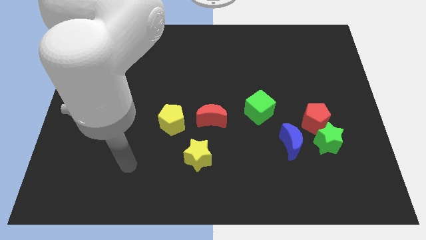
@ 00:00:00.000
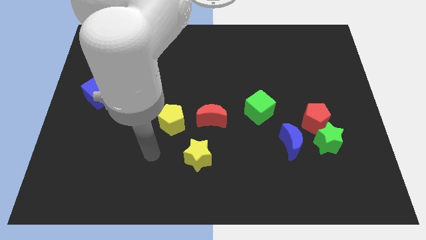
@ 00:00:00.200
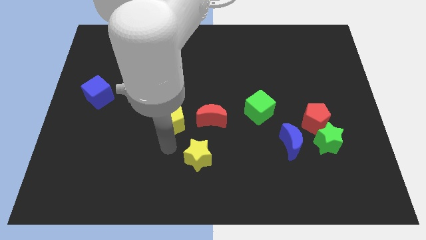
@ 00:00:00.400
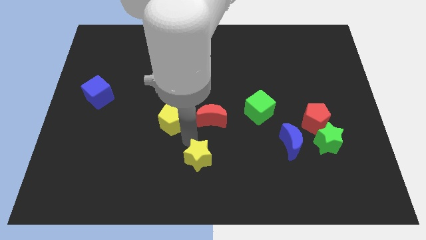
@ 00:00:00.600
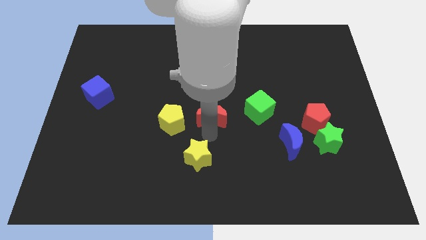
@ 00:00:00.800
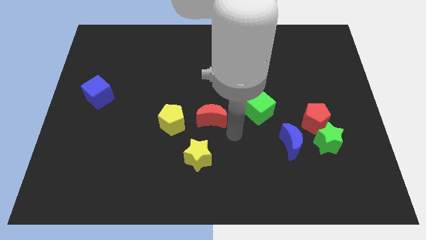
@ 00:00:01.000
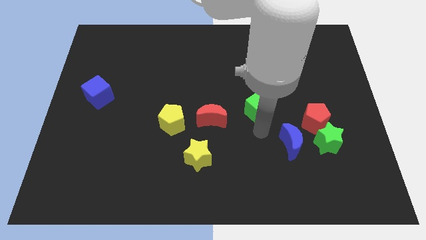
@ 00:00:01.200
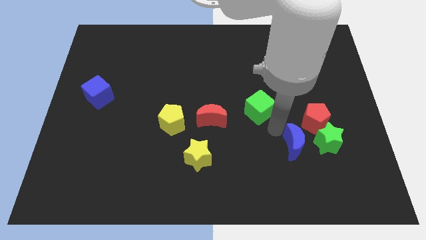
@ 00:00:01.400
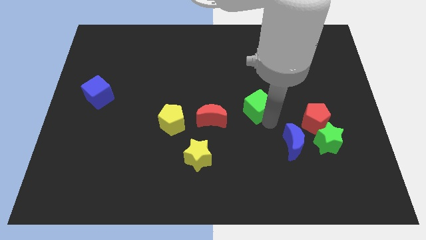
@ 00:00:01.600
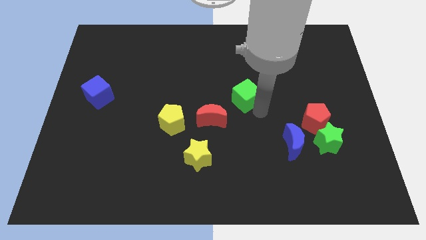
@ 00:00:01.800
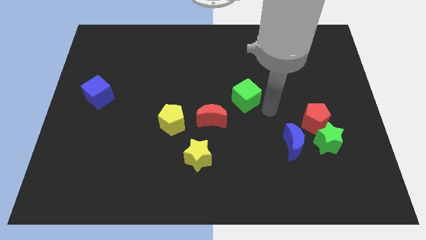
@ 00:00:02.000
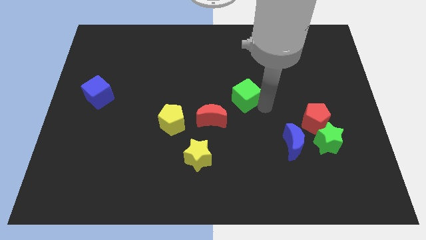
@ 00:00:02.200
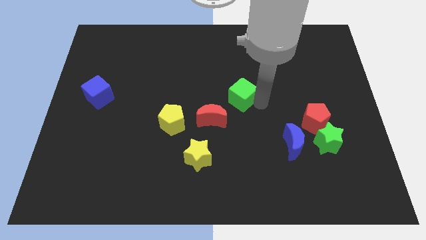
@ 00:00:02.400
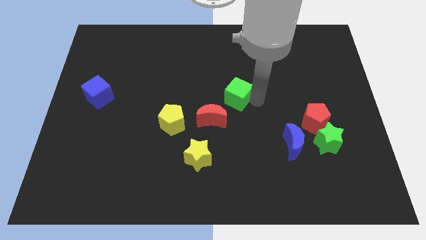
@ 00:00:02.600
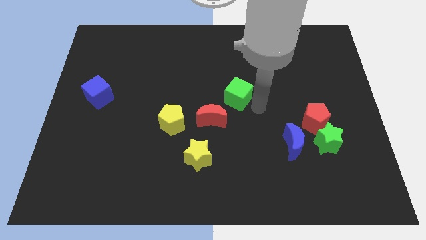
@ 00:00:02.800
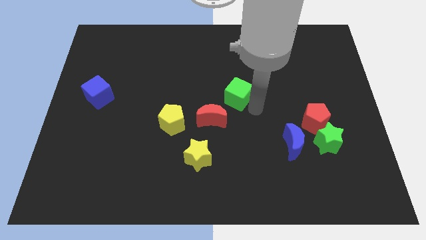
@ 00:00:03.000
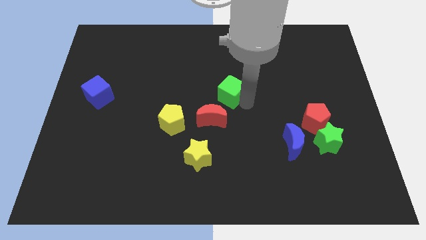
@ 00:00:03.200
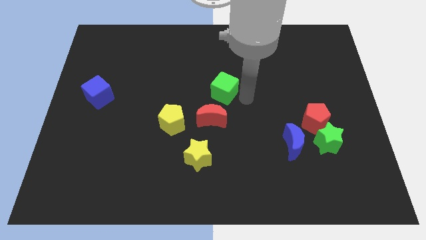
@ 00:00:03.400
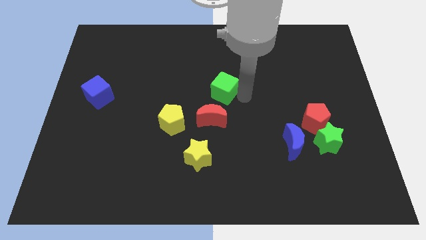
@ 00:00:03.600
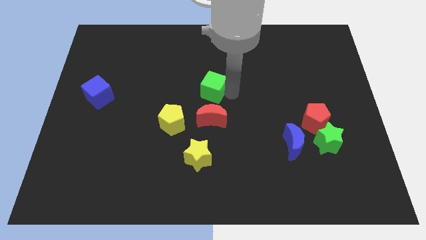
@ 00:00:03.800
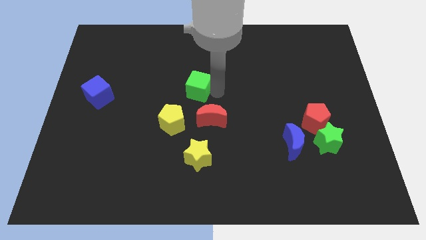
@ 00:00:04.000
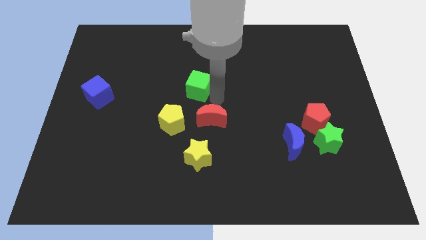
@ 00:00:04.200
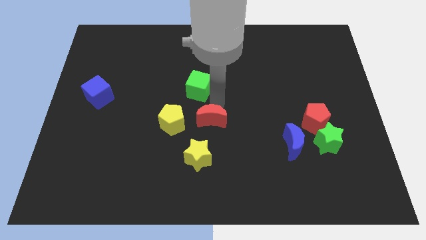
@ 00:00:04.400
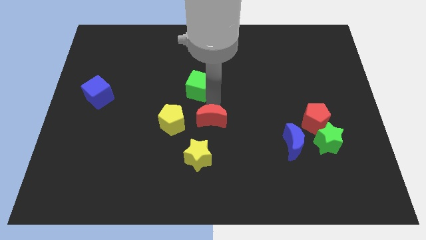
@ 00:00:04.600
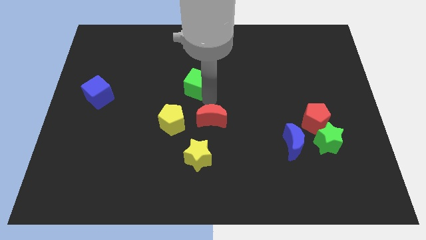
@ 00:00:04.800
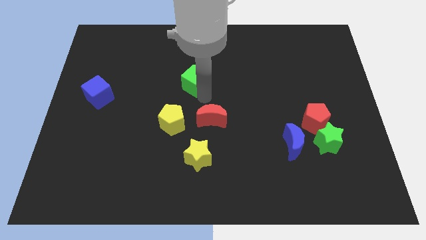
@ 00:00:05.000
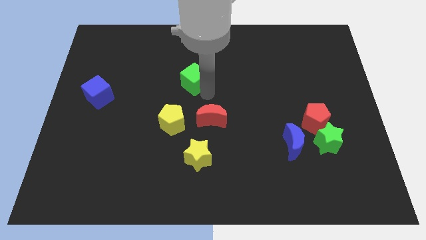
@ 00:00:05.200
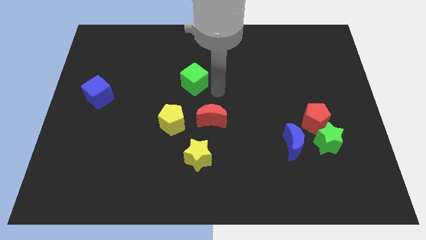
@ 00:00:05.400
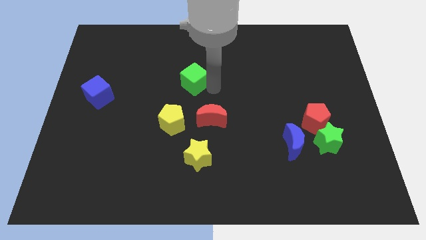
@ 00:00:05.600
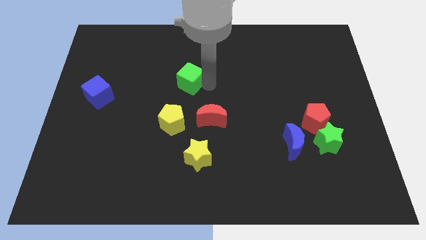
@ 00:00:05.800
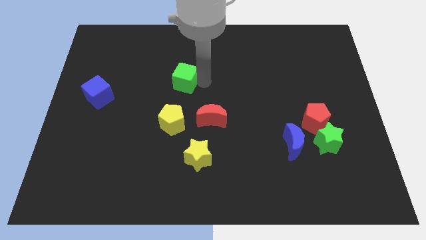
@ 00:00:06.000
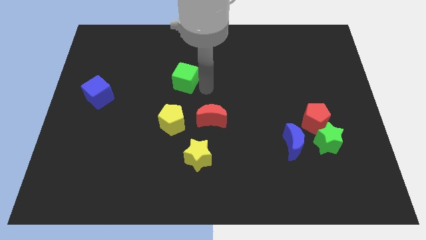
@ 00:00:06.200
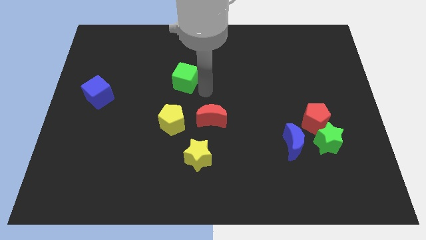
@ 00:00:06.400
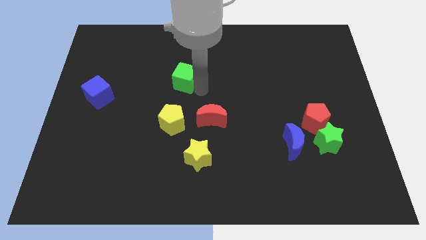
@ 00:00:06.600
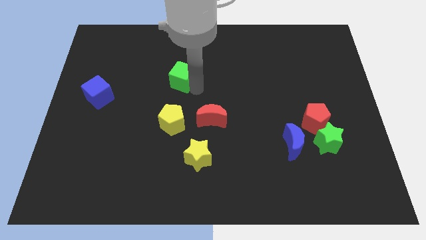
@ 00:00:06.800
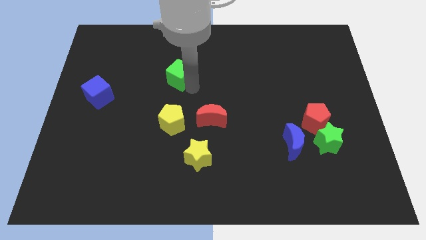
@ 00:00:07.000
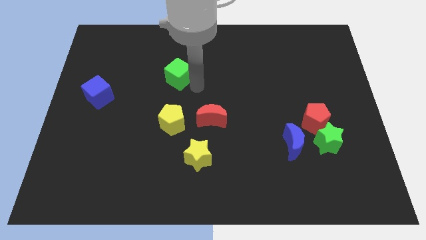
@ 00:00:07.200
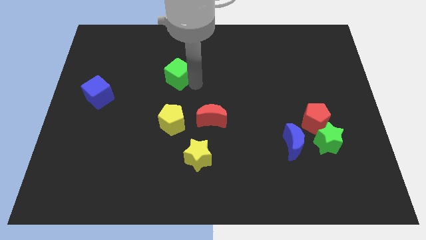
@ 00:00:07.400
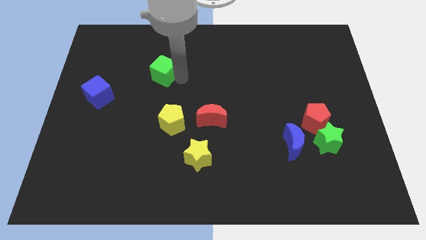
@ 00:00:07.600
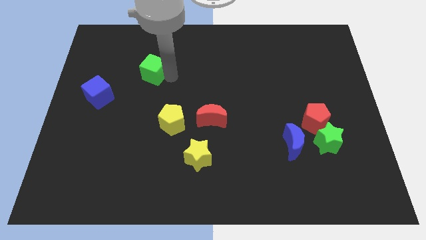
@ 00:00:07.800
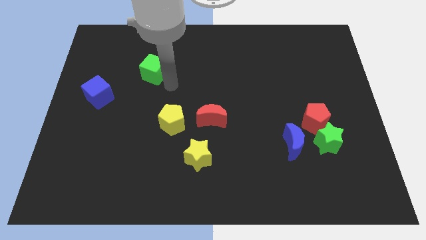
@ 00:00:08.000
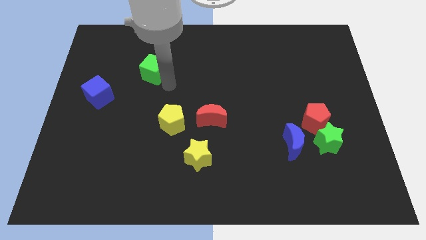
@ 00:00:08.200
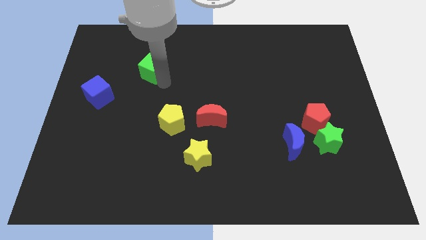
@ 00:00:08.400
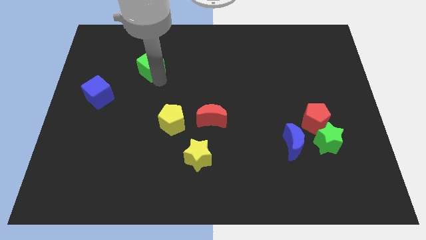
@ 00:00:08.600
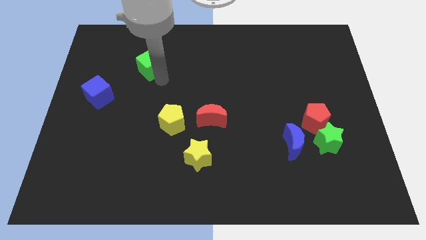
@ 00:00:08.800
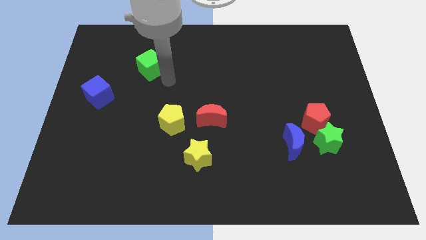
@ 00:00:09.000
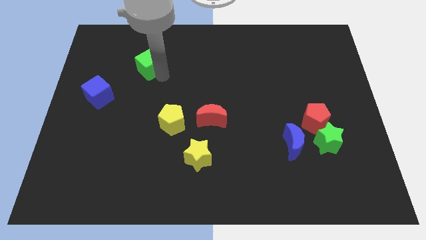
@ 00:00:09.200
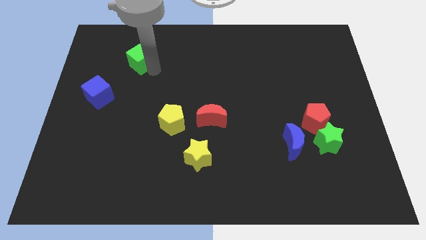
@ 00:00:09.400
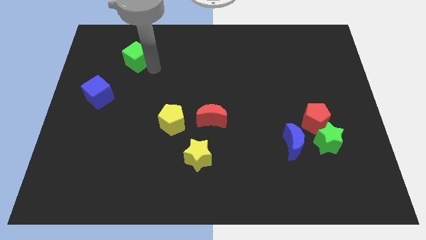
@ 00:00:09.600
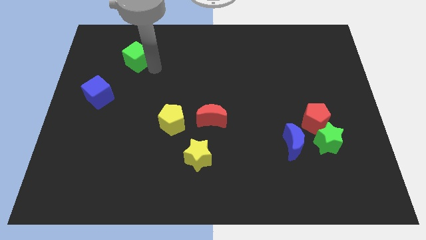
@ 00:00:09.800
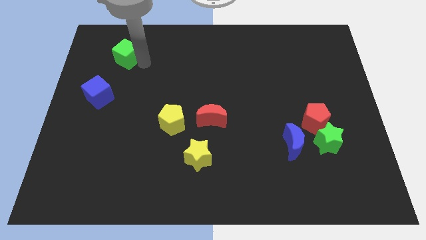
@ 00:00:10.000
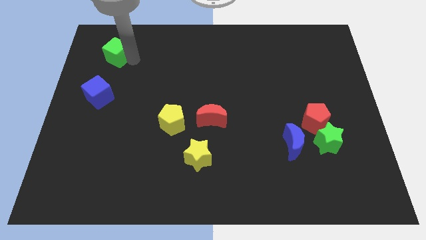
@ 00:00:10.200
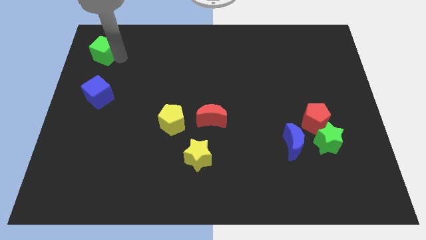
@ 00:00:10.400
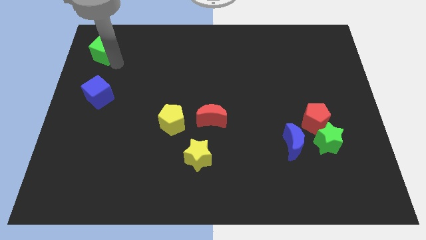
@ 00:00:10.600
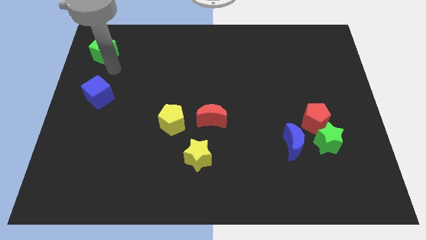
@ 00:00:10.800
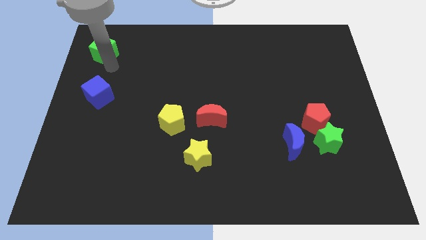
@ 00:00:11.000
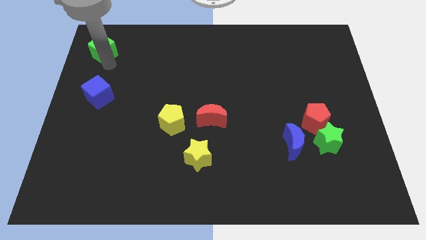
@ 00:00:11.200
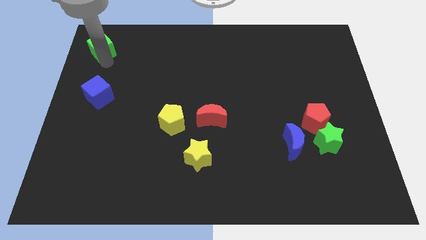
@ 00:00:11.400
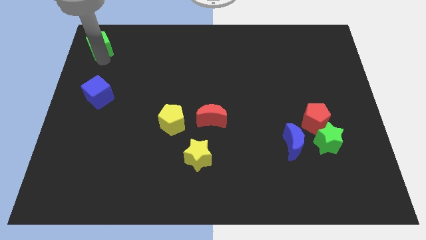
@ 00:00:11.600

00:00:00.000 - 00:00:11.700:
push the green cube to the top left of the board
